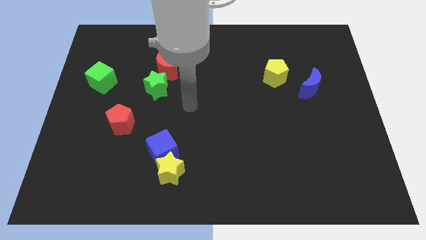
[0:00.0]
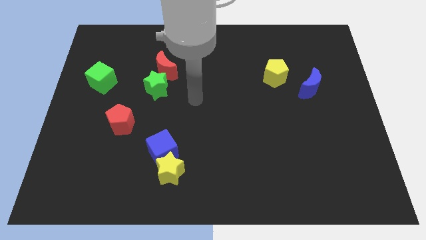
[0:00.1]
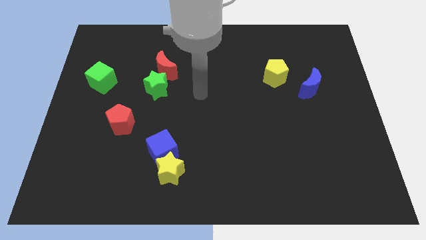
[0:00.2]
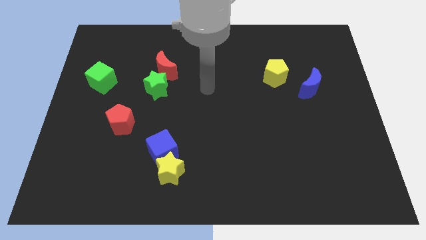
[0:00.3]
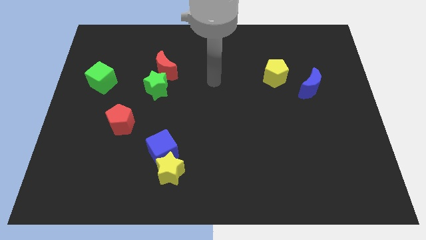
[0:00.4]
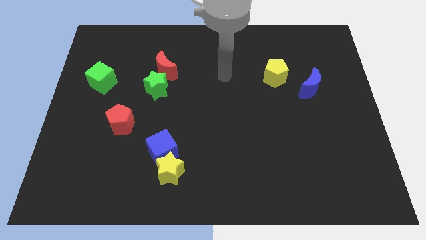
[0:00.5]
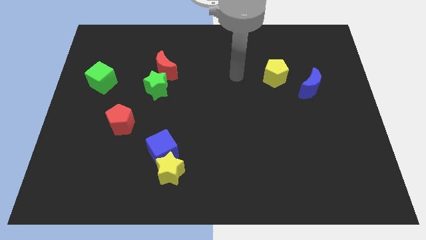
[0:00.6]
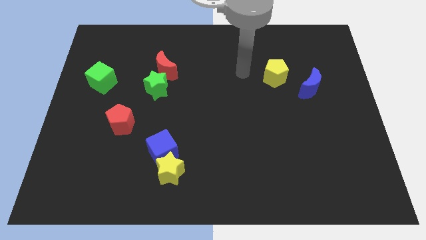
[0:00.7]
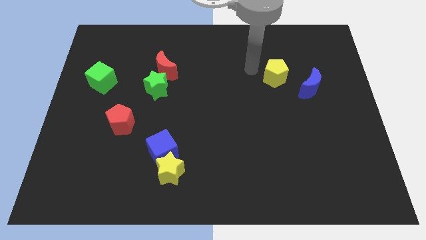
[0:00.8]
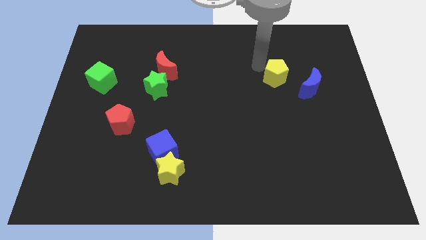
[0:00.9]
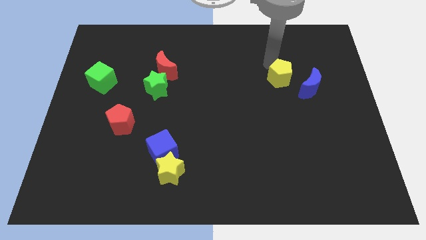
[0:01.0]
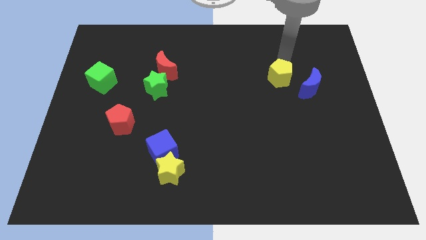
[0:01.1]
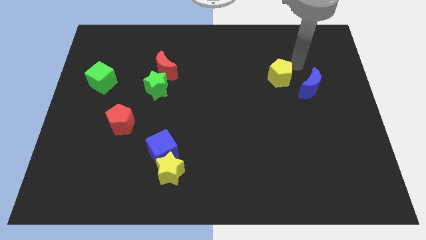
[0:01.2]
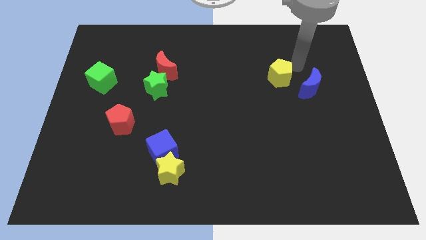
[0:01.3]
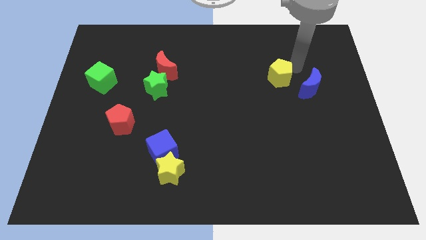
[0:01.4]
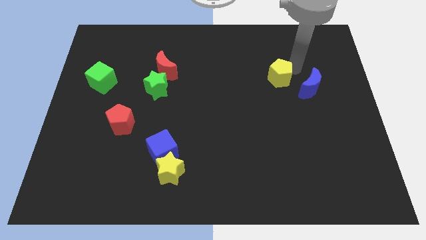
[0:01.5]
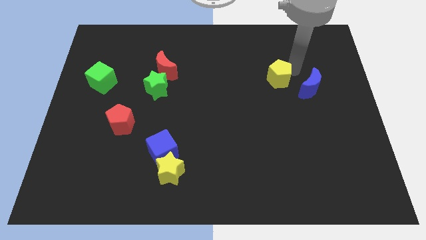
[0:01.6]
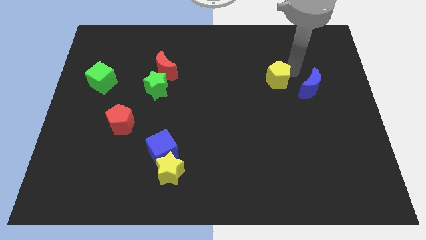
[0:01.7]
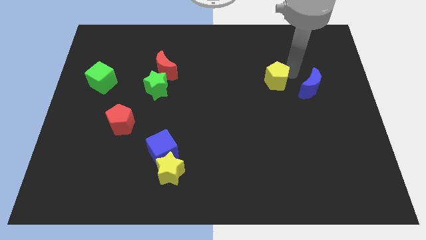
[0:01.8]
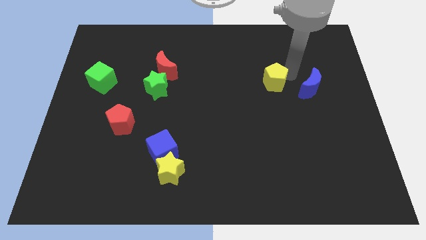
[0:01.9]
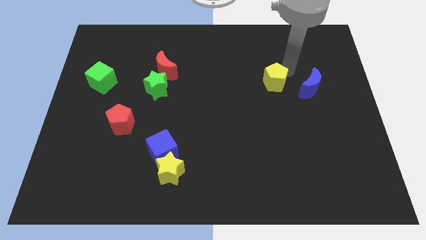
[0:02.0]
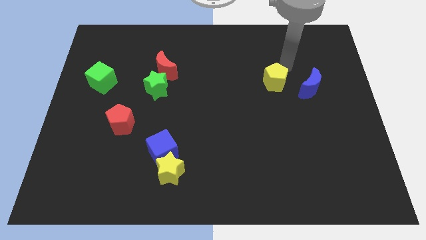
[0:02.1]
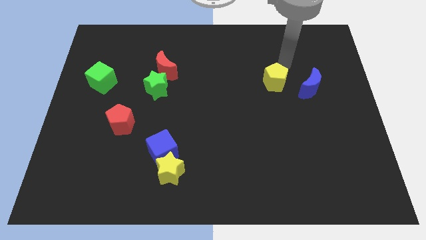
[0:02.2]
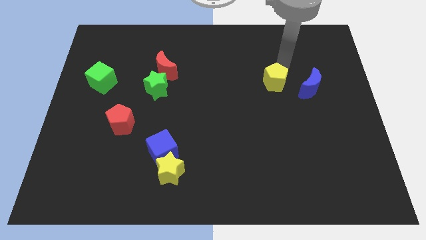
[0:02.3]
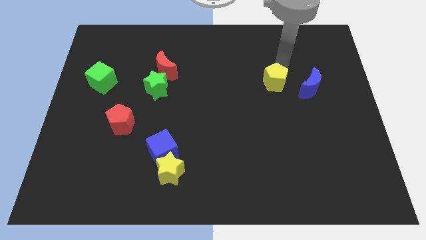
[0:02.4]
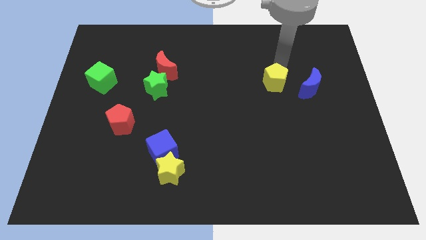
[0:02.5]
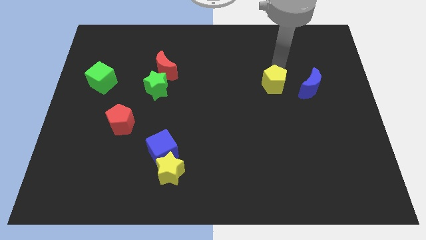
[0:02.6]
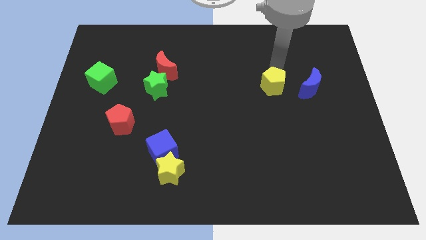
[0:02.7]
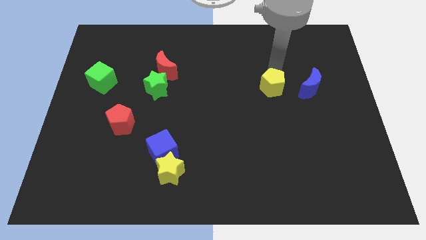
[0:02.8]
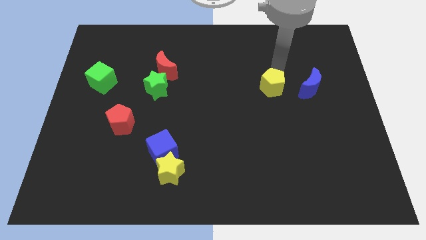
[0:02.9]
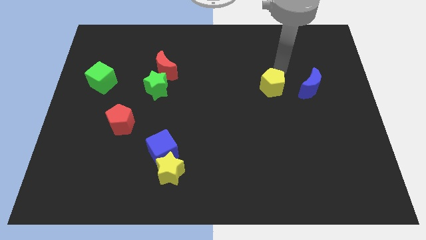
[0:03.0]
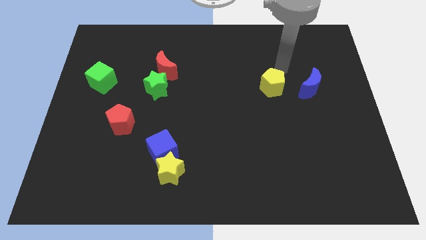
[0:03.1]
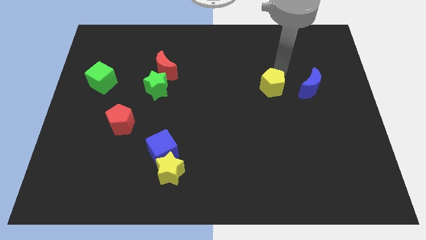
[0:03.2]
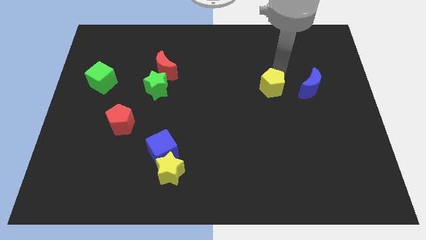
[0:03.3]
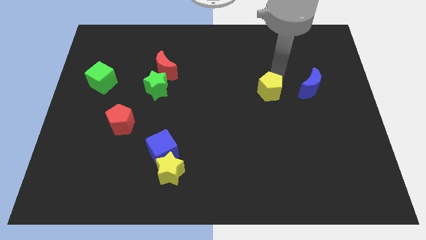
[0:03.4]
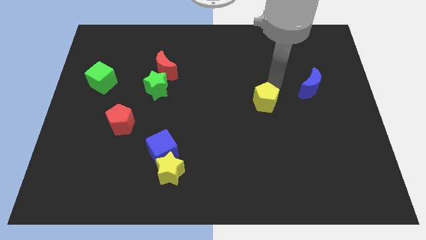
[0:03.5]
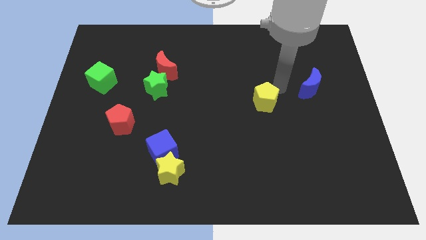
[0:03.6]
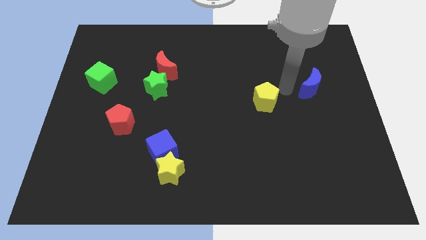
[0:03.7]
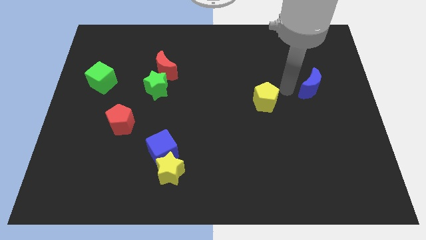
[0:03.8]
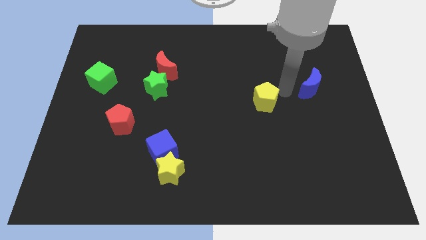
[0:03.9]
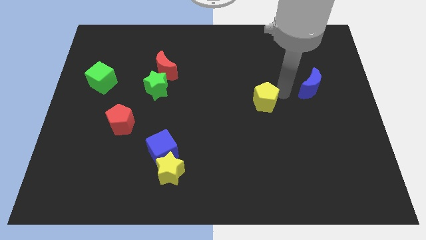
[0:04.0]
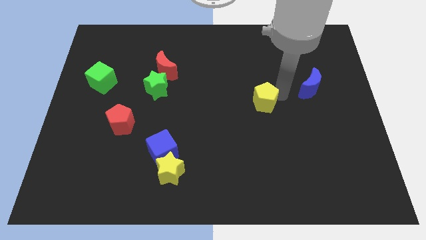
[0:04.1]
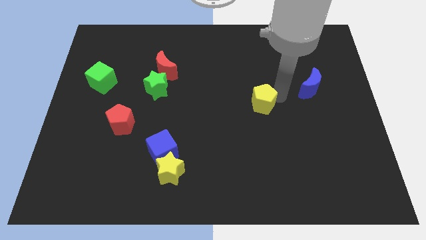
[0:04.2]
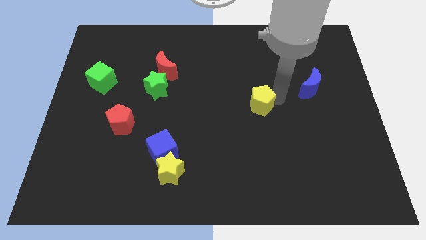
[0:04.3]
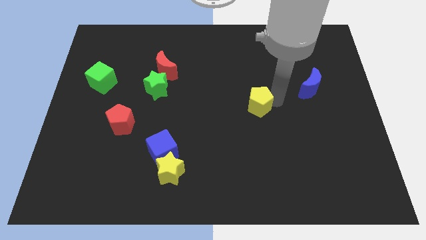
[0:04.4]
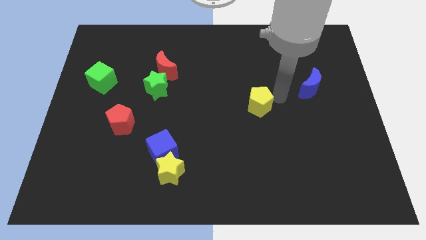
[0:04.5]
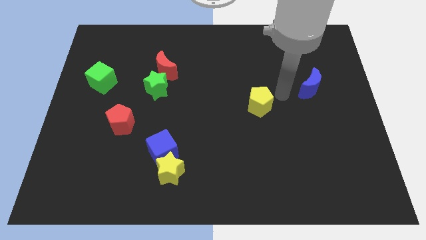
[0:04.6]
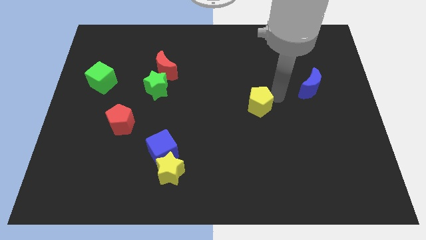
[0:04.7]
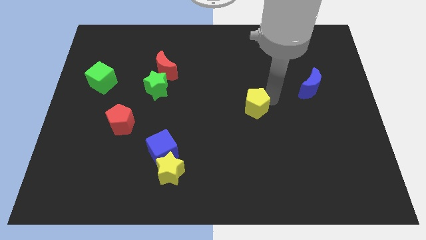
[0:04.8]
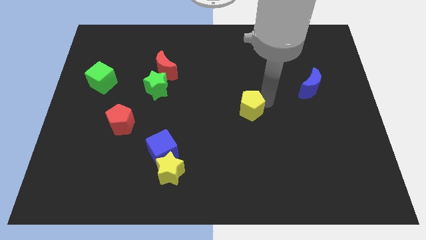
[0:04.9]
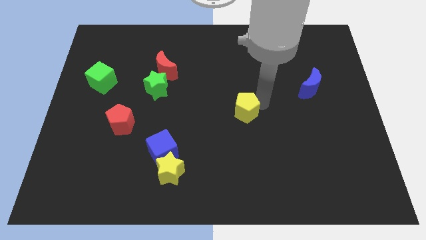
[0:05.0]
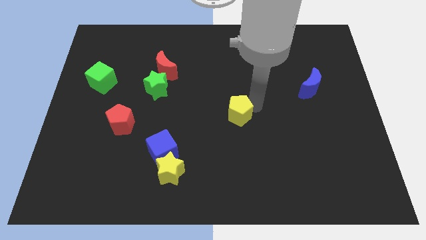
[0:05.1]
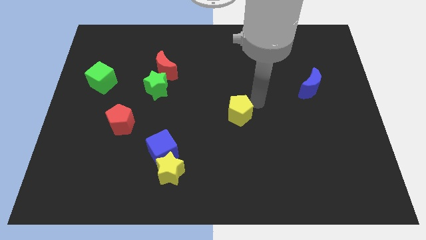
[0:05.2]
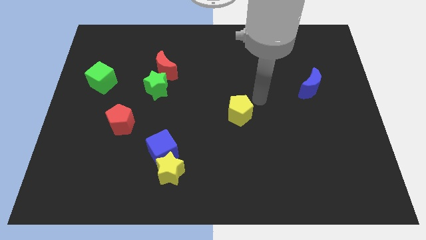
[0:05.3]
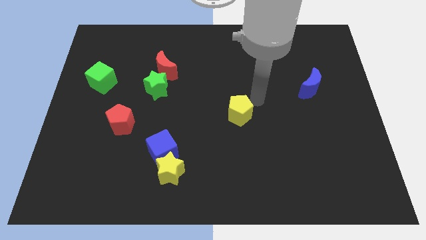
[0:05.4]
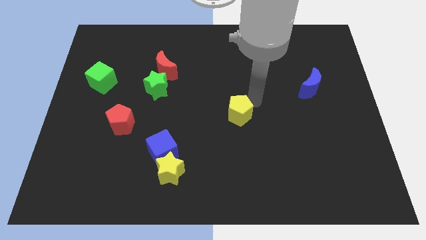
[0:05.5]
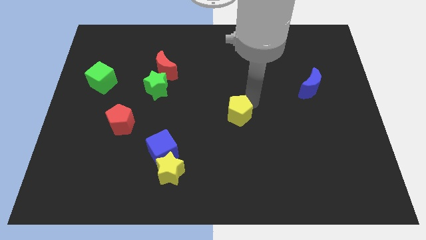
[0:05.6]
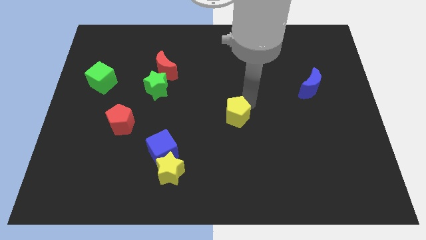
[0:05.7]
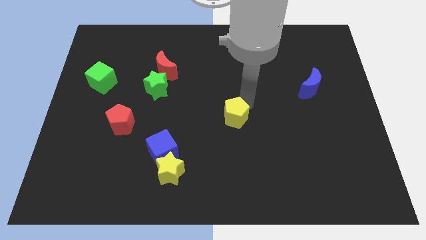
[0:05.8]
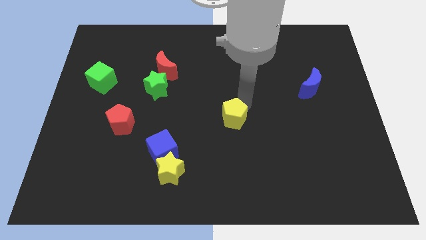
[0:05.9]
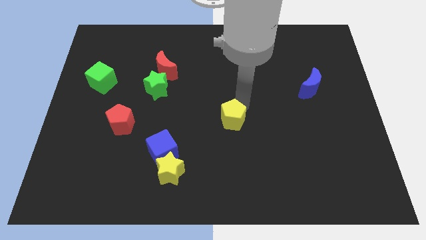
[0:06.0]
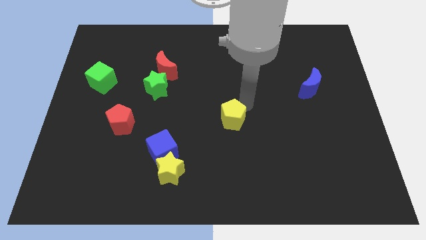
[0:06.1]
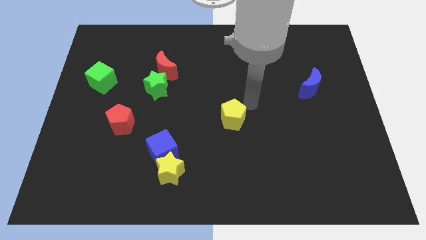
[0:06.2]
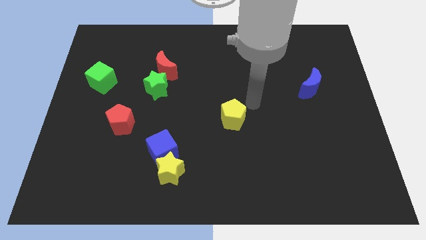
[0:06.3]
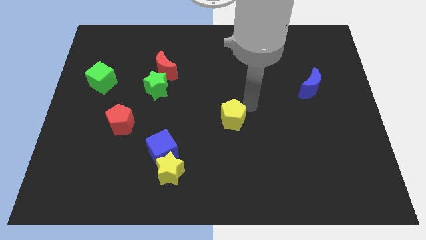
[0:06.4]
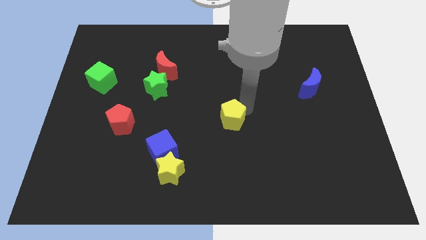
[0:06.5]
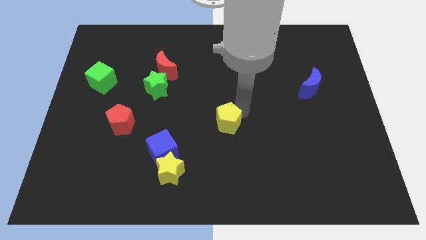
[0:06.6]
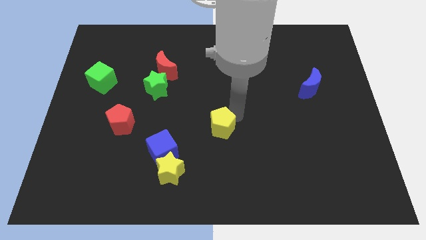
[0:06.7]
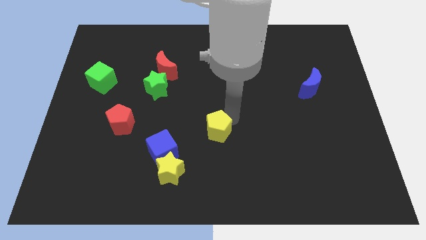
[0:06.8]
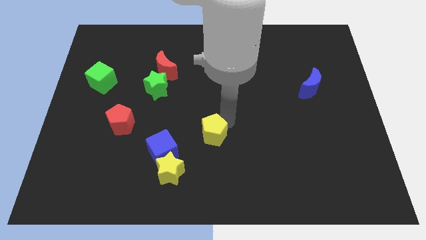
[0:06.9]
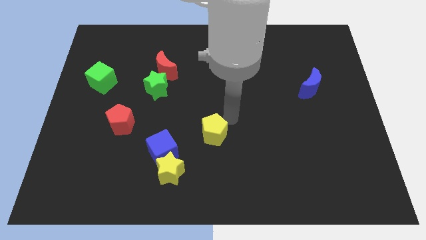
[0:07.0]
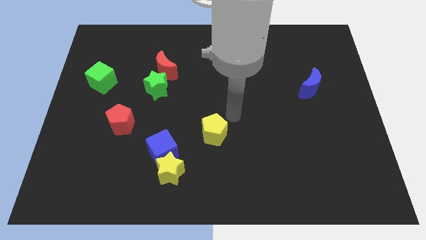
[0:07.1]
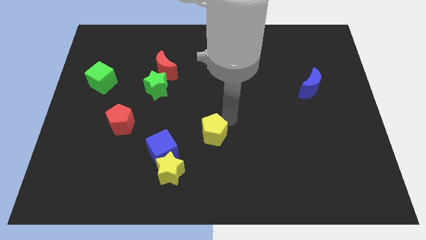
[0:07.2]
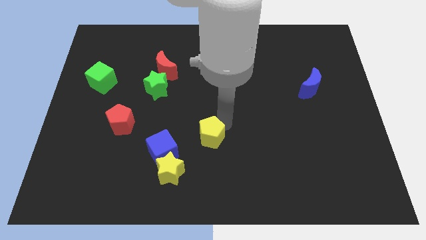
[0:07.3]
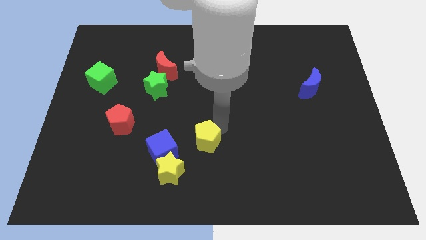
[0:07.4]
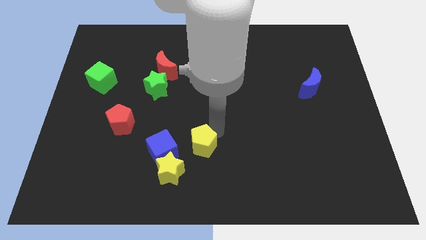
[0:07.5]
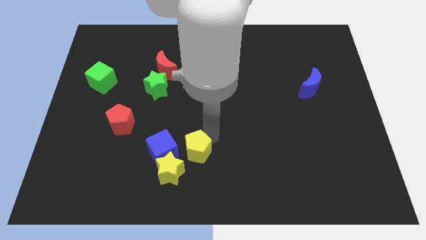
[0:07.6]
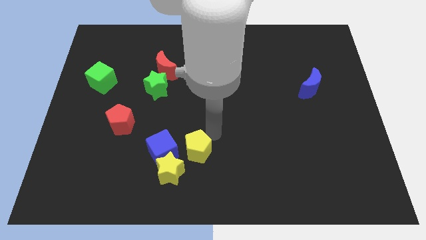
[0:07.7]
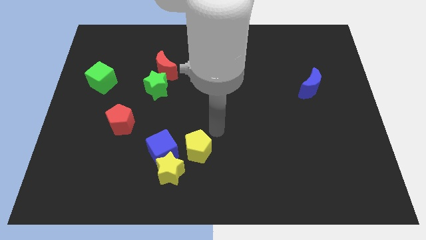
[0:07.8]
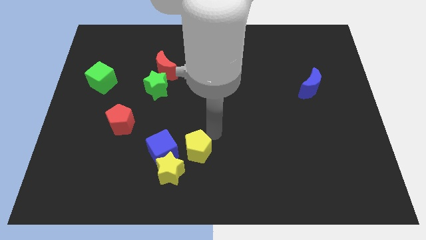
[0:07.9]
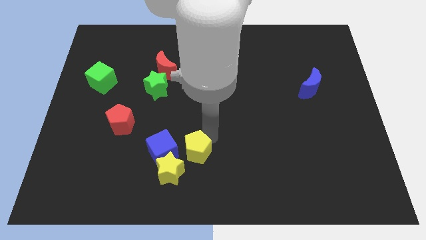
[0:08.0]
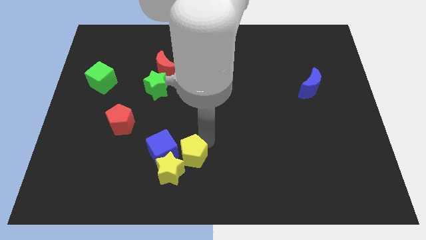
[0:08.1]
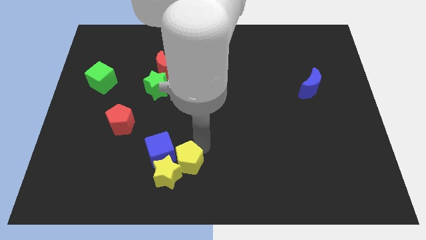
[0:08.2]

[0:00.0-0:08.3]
push the yellow pentagon to the yellow star
